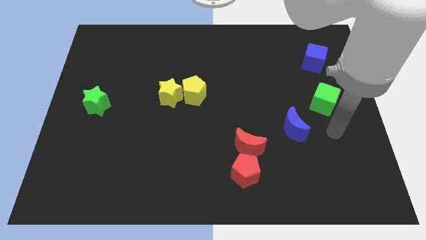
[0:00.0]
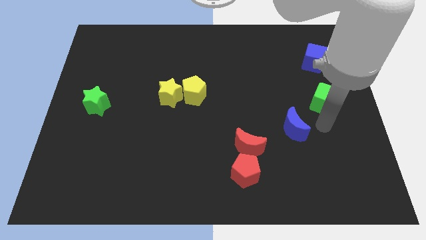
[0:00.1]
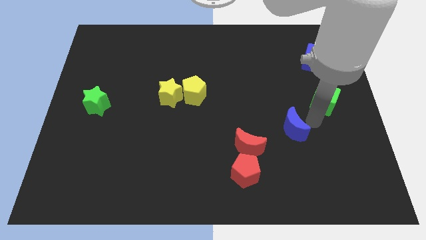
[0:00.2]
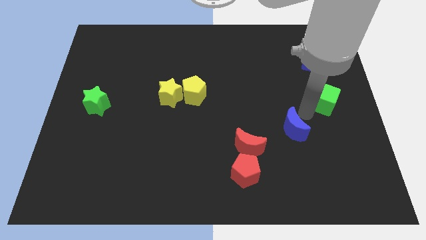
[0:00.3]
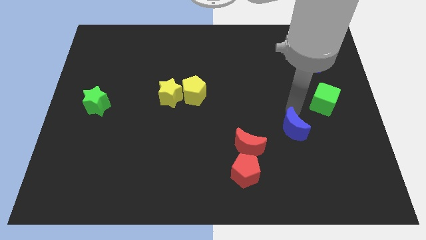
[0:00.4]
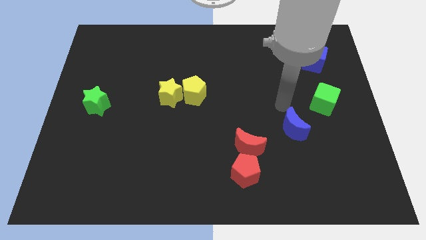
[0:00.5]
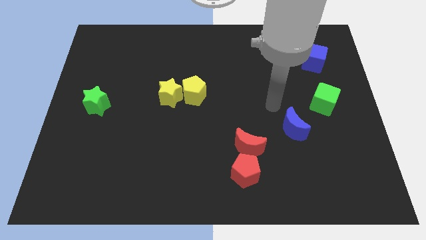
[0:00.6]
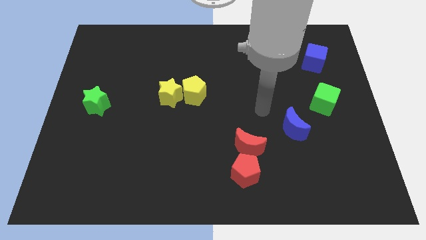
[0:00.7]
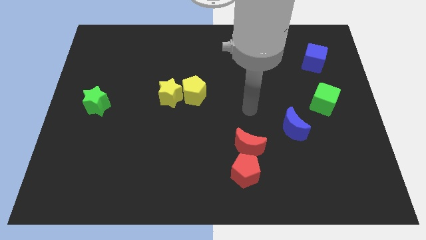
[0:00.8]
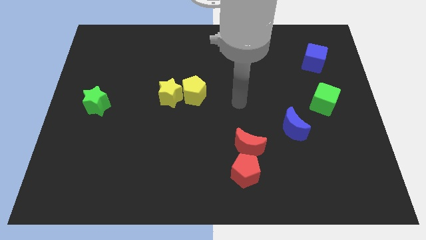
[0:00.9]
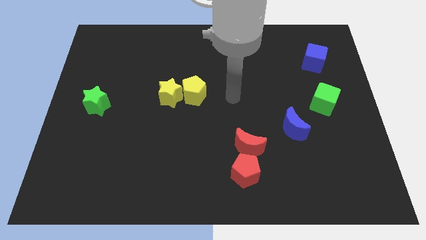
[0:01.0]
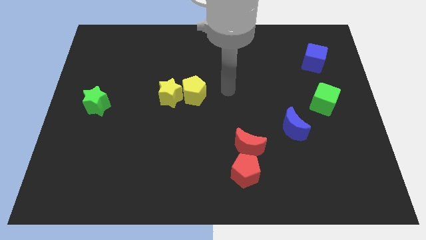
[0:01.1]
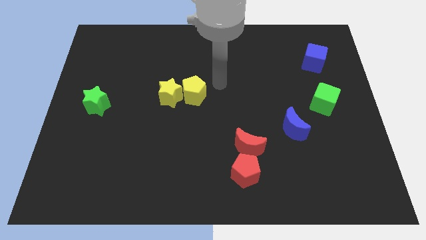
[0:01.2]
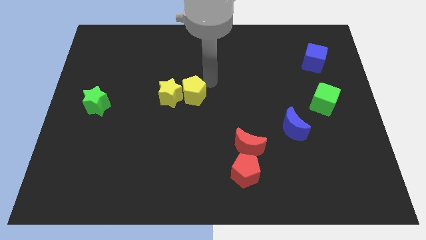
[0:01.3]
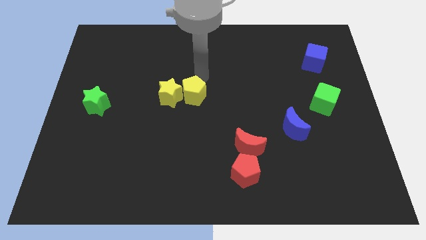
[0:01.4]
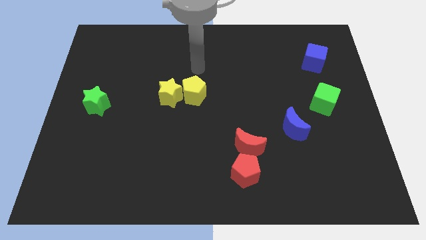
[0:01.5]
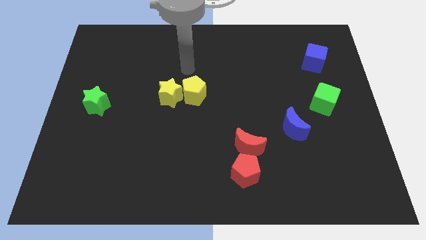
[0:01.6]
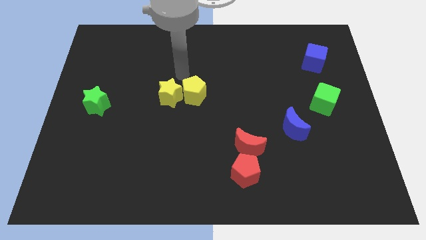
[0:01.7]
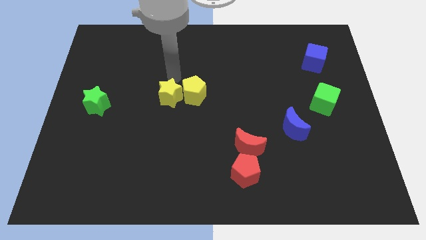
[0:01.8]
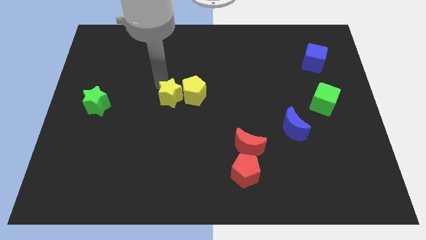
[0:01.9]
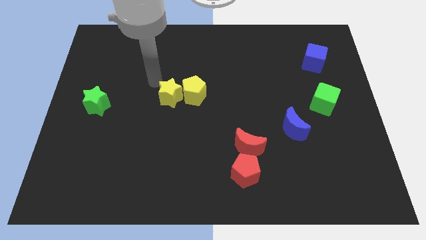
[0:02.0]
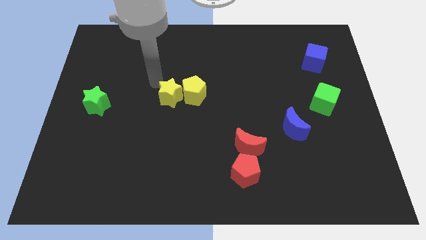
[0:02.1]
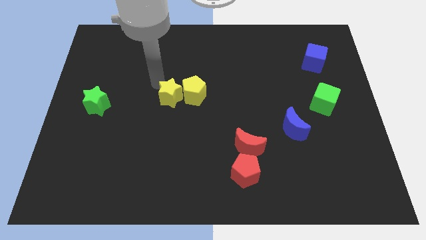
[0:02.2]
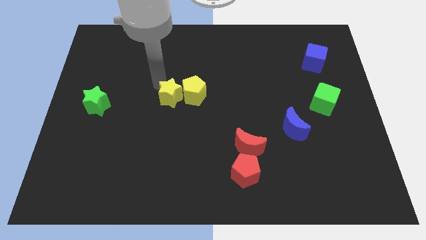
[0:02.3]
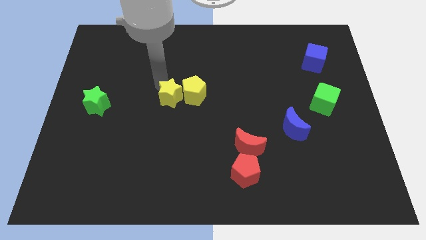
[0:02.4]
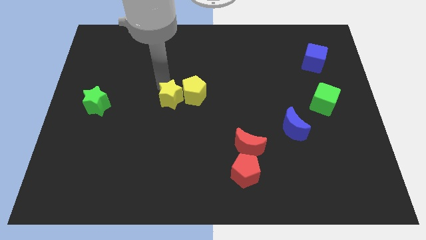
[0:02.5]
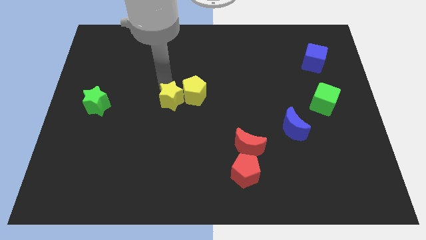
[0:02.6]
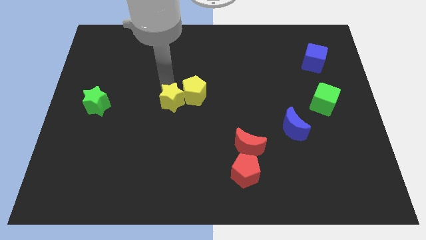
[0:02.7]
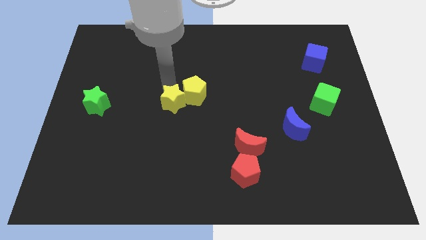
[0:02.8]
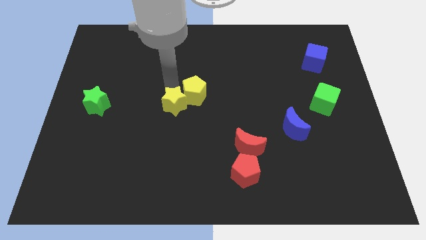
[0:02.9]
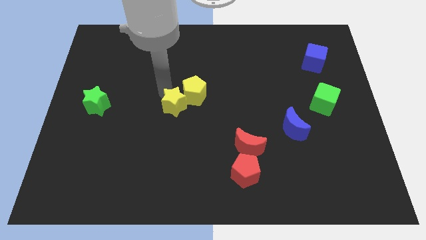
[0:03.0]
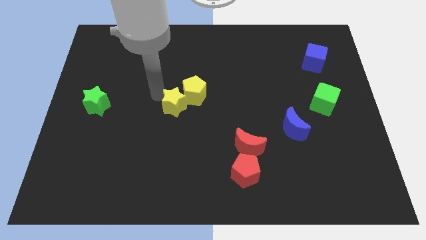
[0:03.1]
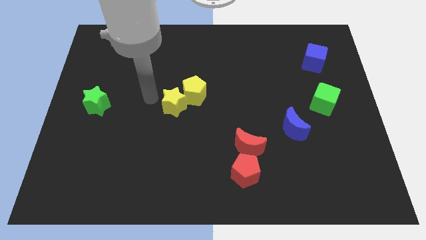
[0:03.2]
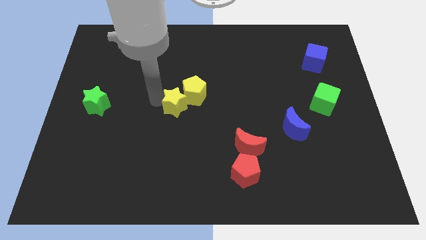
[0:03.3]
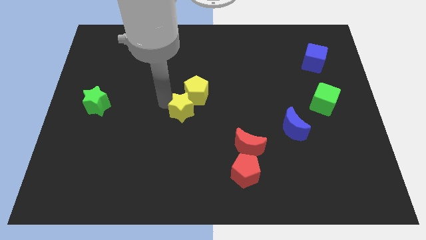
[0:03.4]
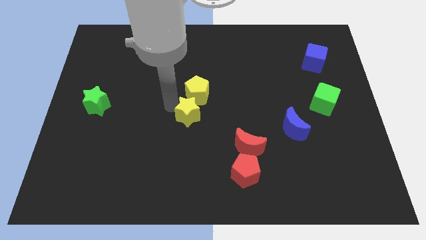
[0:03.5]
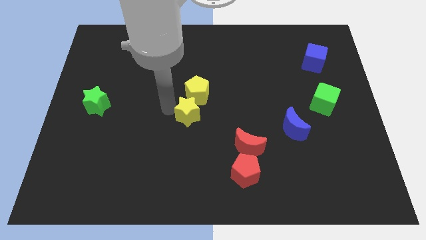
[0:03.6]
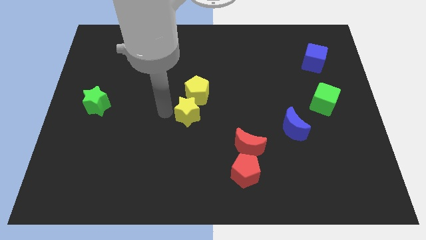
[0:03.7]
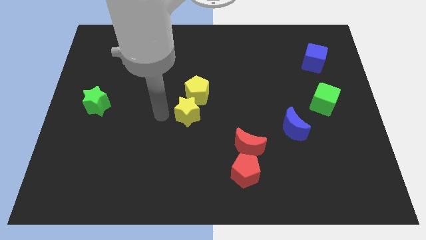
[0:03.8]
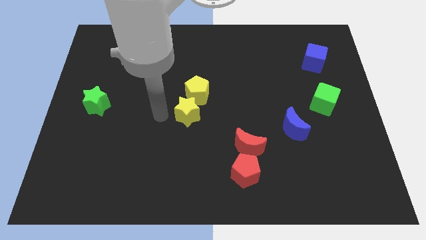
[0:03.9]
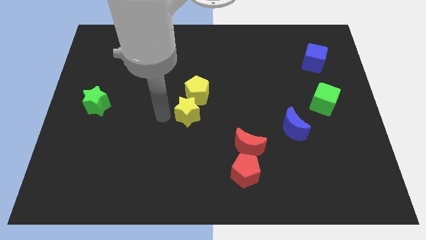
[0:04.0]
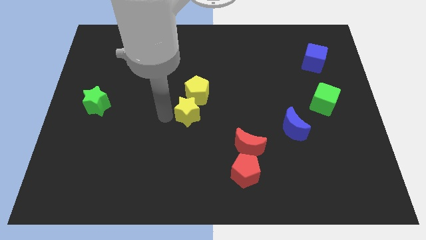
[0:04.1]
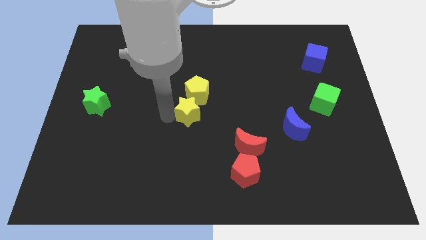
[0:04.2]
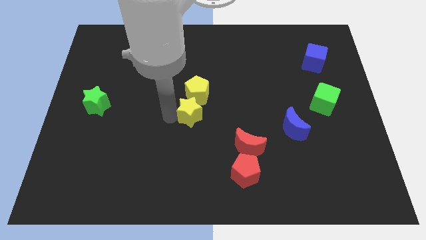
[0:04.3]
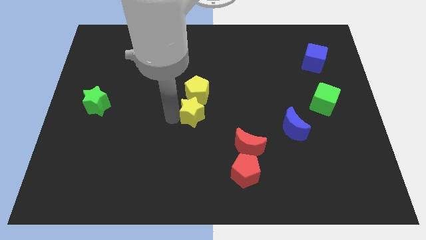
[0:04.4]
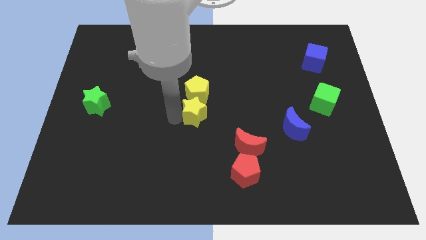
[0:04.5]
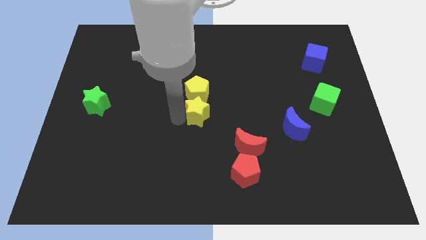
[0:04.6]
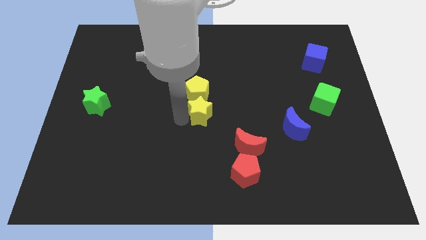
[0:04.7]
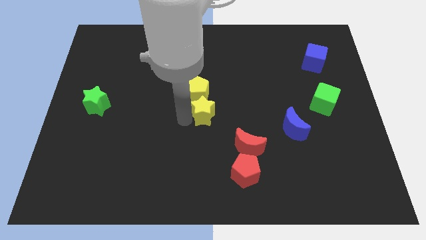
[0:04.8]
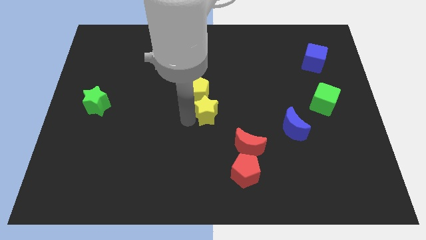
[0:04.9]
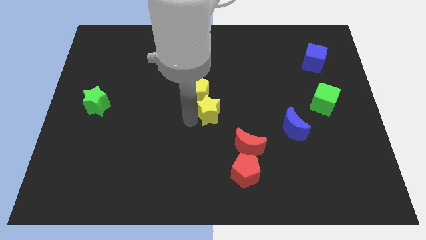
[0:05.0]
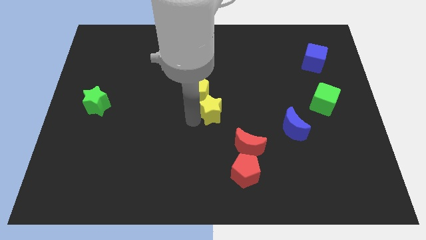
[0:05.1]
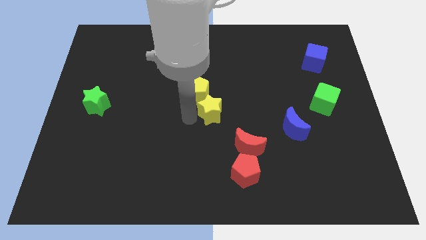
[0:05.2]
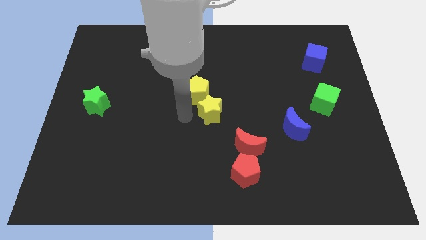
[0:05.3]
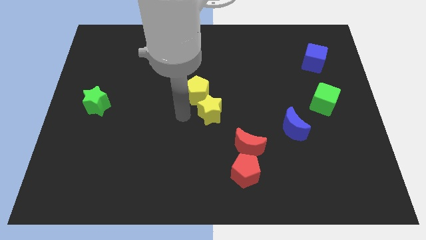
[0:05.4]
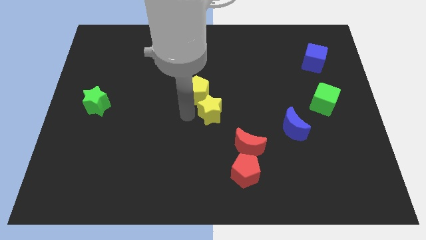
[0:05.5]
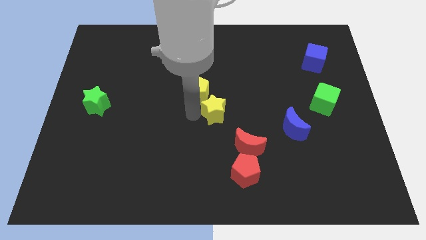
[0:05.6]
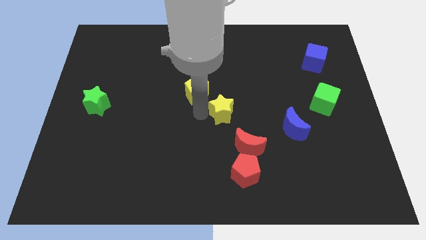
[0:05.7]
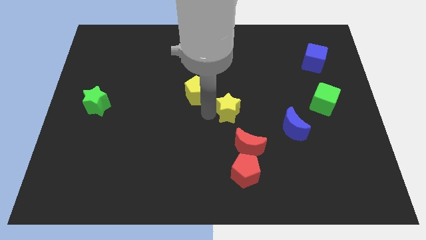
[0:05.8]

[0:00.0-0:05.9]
move the yellow star above the red moon

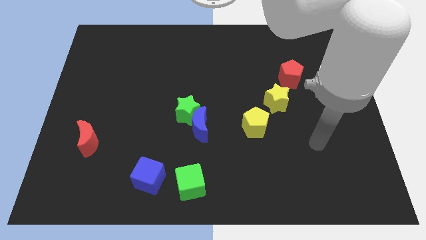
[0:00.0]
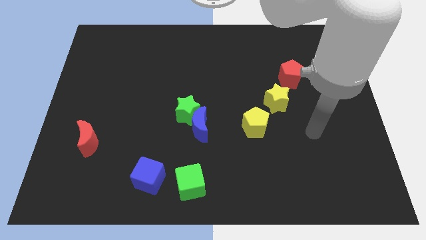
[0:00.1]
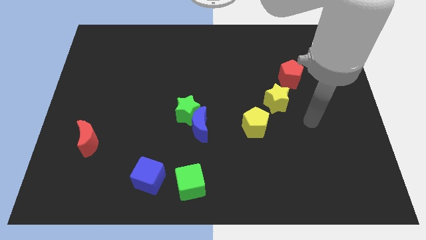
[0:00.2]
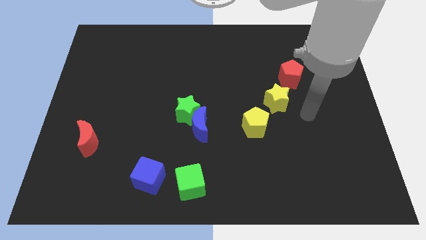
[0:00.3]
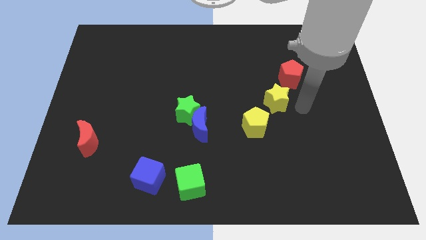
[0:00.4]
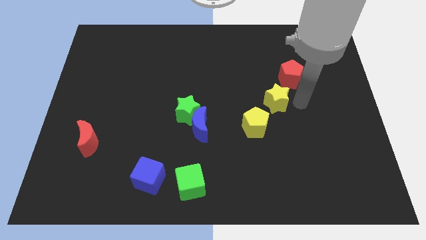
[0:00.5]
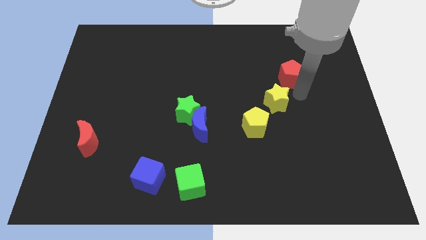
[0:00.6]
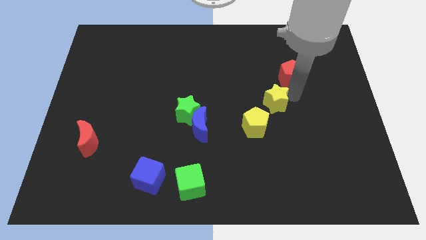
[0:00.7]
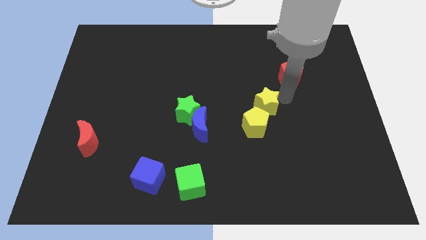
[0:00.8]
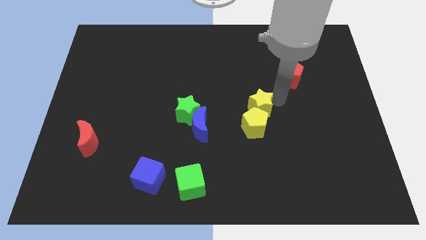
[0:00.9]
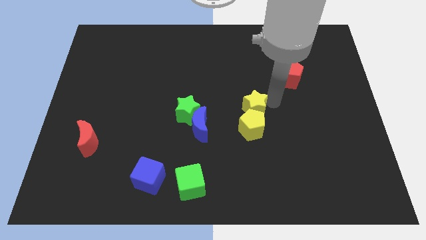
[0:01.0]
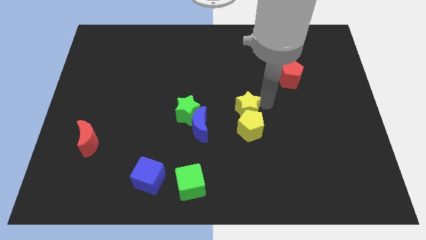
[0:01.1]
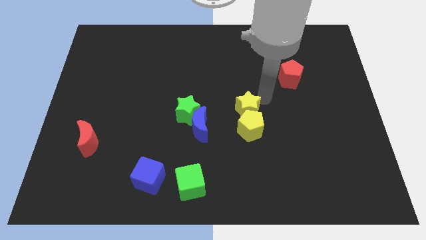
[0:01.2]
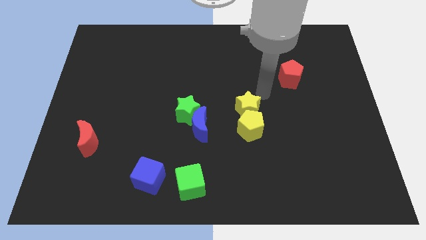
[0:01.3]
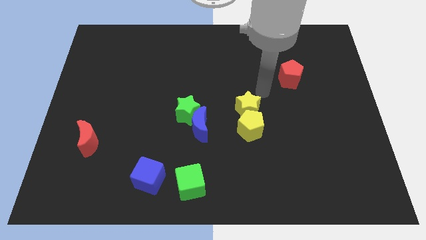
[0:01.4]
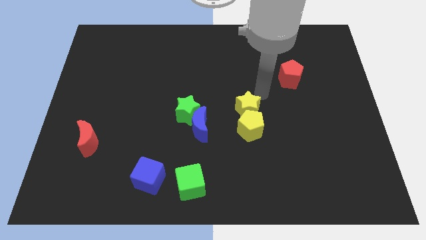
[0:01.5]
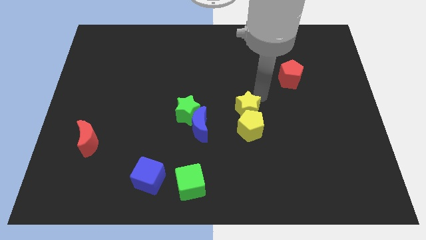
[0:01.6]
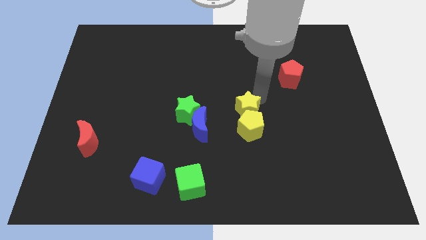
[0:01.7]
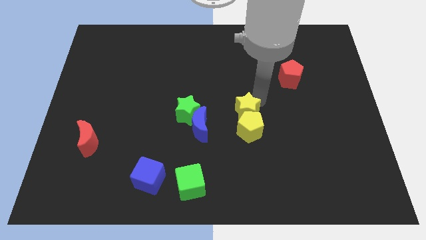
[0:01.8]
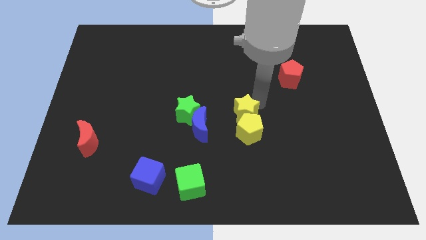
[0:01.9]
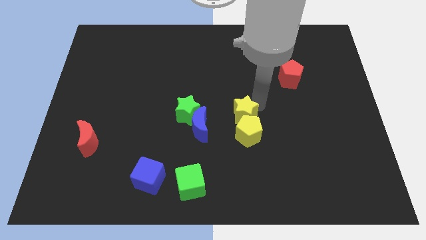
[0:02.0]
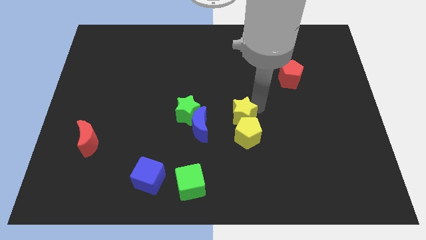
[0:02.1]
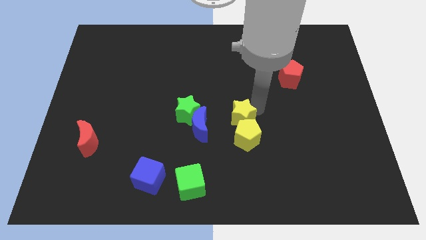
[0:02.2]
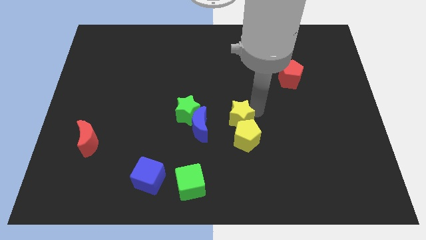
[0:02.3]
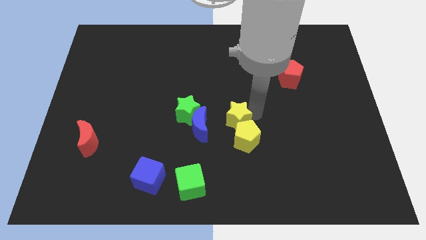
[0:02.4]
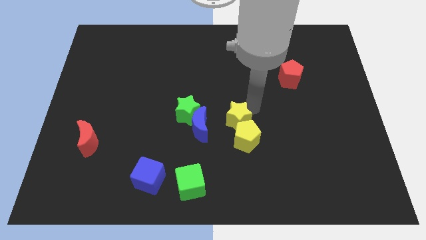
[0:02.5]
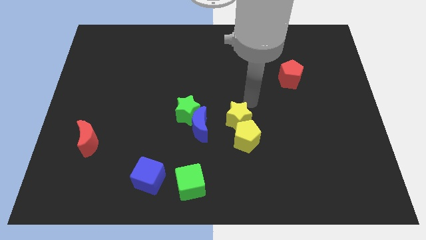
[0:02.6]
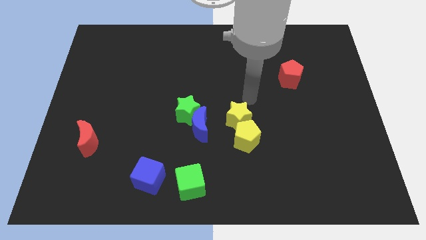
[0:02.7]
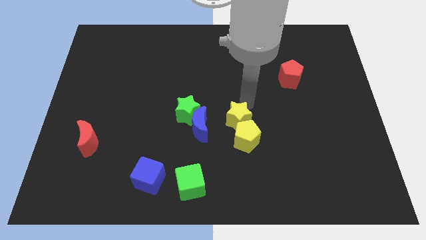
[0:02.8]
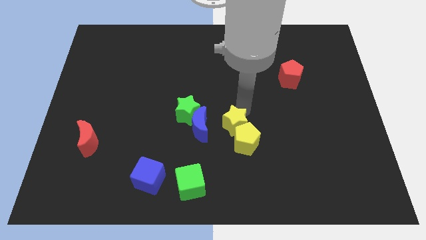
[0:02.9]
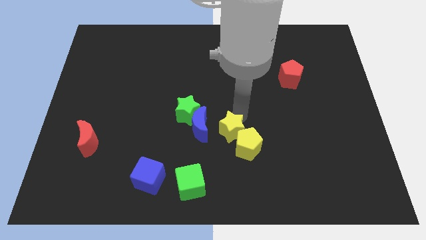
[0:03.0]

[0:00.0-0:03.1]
put the yellow star diagonally down and to the right of the blue moon

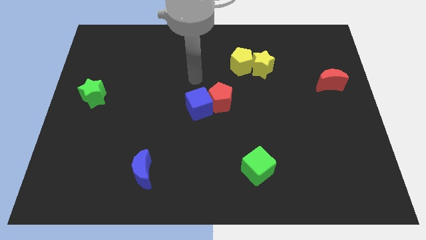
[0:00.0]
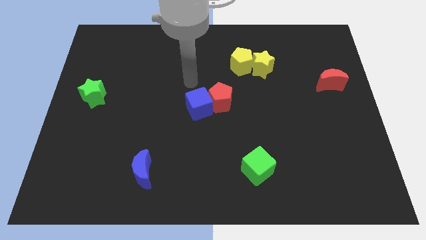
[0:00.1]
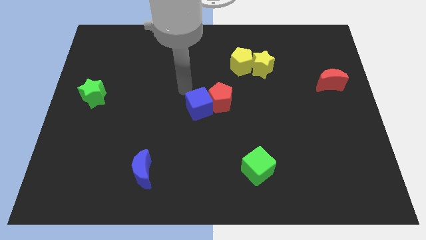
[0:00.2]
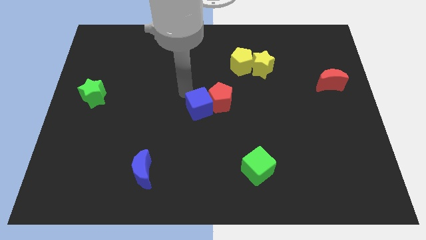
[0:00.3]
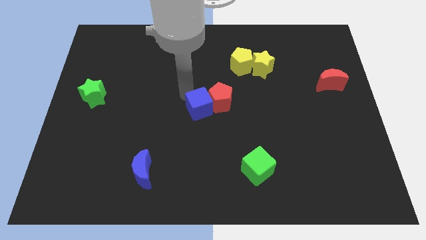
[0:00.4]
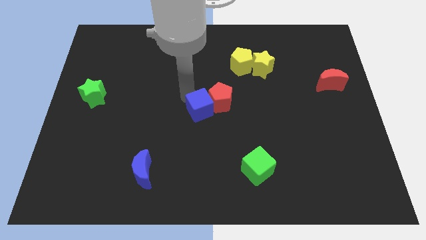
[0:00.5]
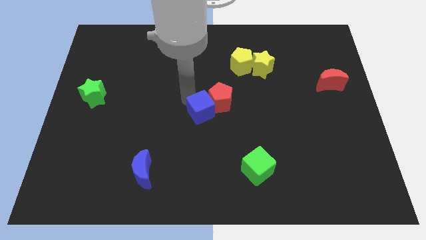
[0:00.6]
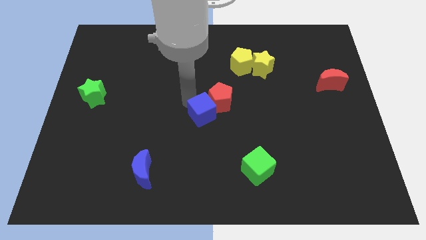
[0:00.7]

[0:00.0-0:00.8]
push the blue cube below the red pentagon
